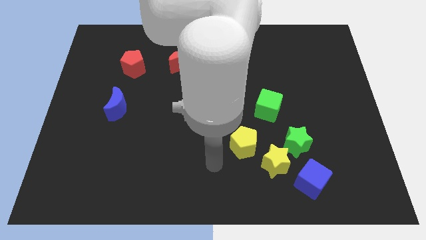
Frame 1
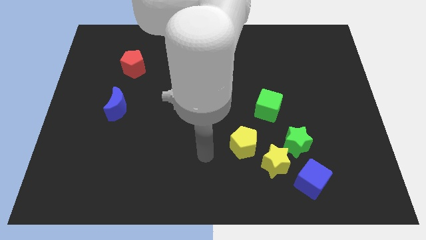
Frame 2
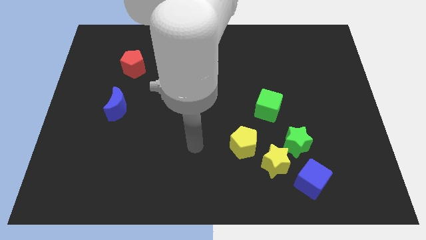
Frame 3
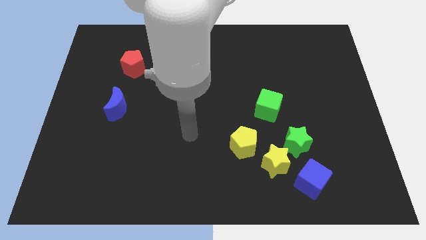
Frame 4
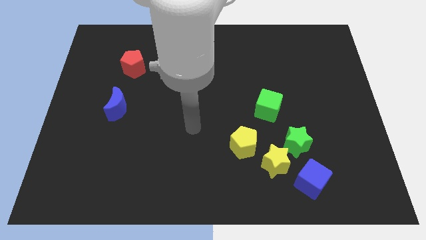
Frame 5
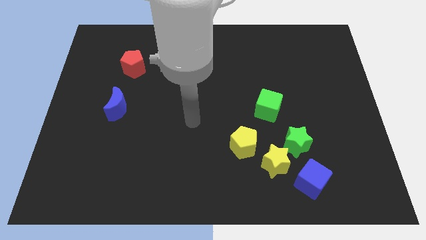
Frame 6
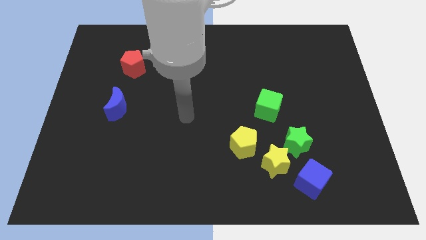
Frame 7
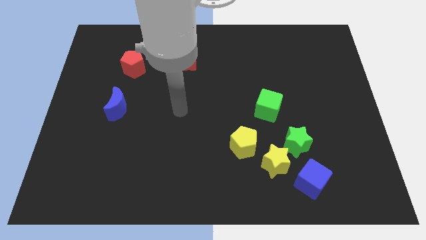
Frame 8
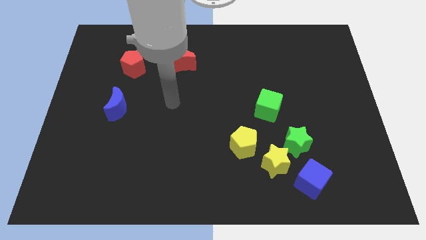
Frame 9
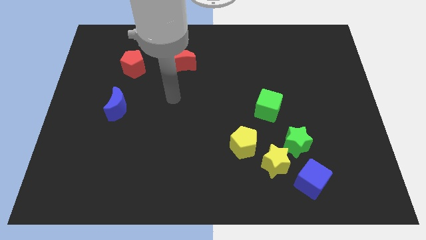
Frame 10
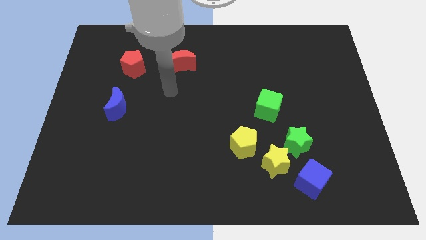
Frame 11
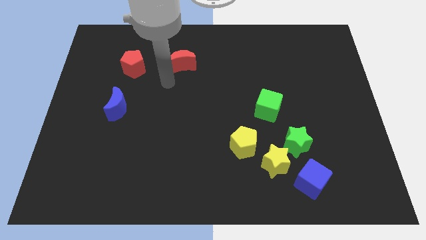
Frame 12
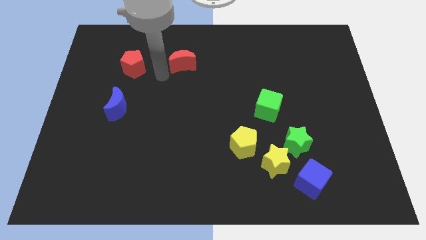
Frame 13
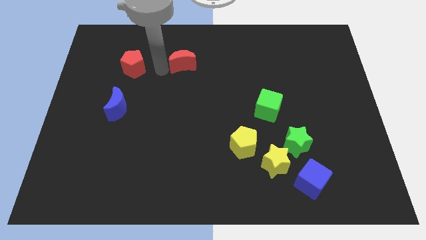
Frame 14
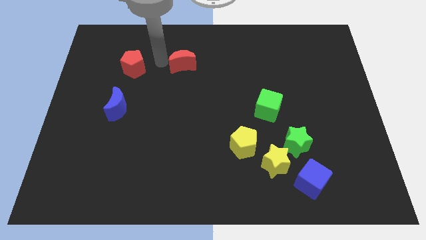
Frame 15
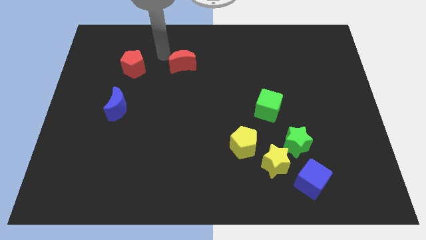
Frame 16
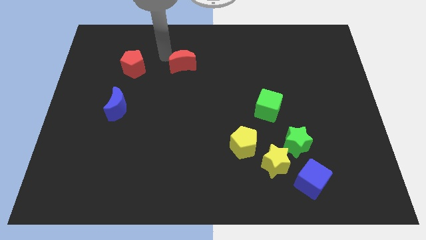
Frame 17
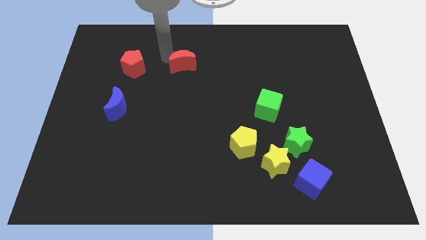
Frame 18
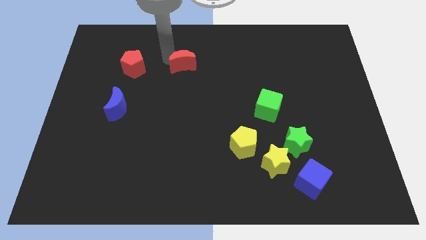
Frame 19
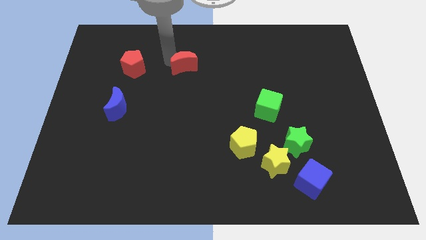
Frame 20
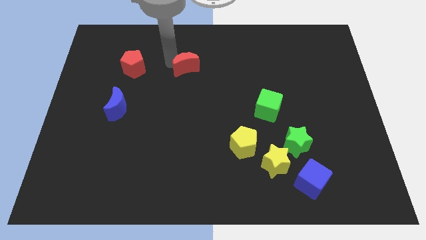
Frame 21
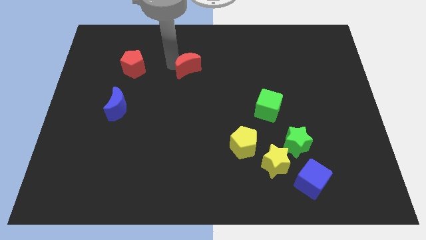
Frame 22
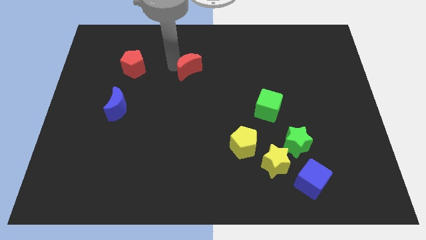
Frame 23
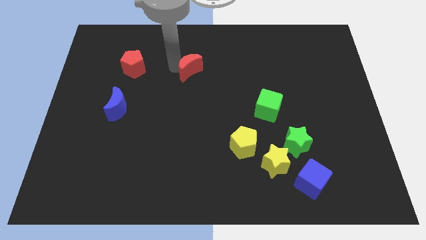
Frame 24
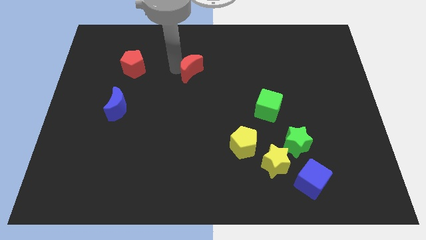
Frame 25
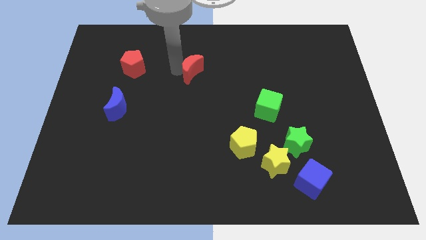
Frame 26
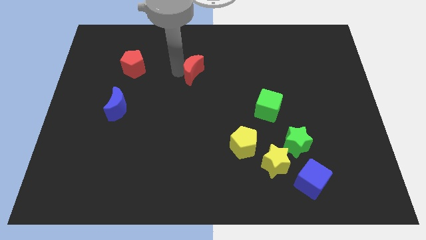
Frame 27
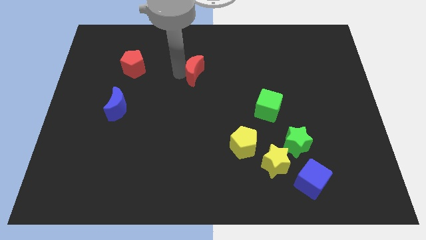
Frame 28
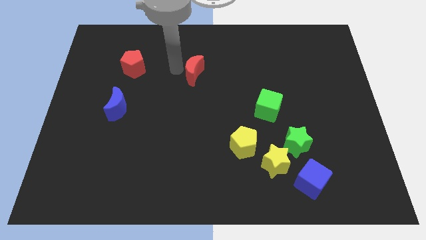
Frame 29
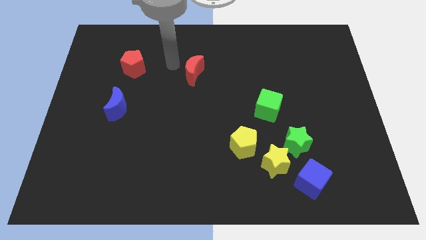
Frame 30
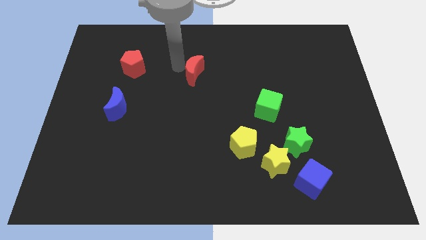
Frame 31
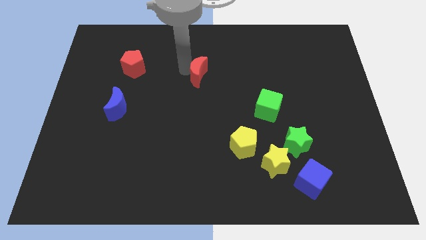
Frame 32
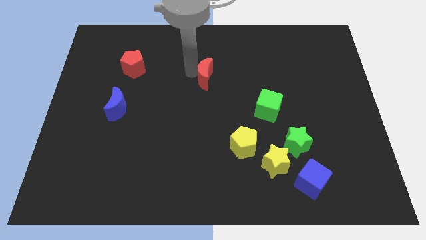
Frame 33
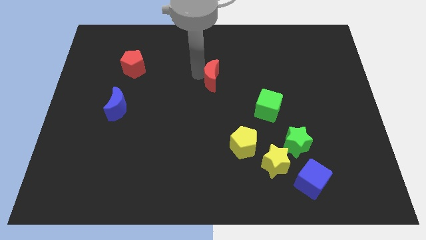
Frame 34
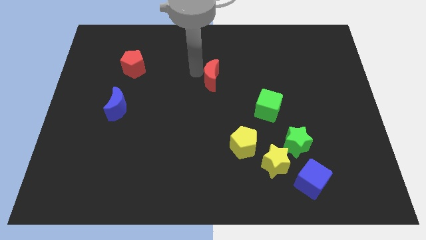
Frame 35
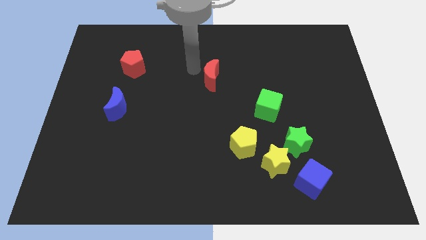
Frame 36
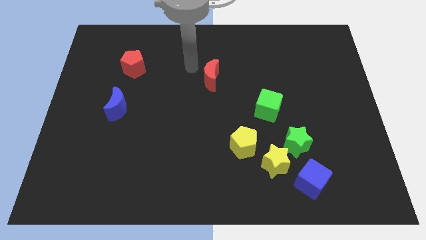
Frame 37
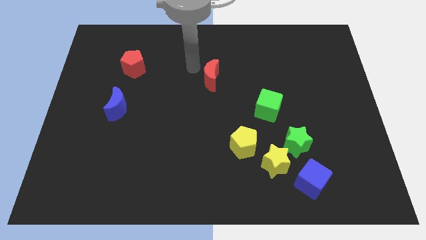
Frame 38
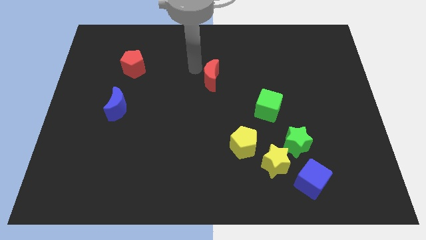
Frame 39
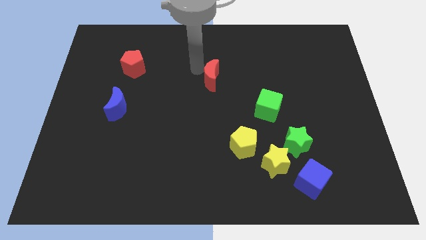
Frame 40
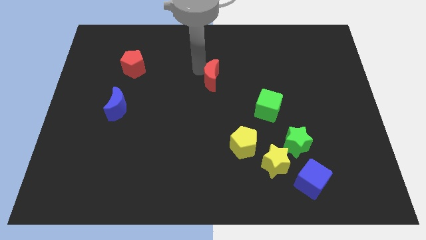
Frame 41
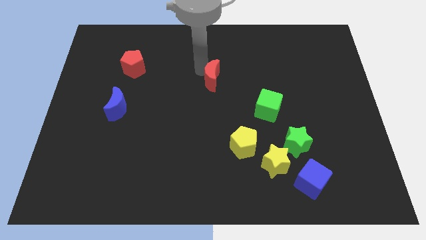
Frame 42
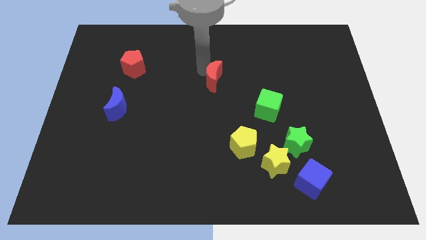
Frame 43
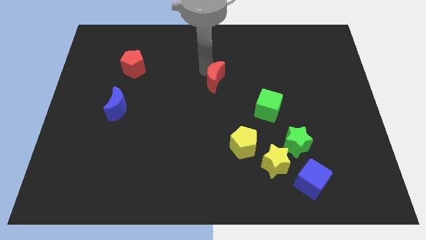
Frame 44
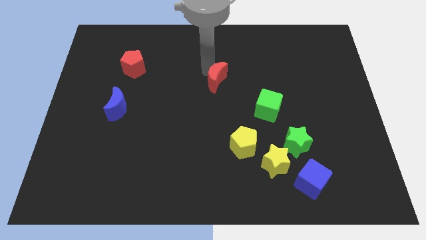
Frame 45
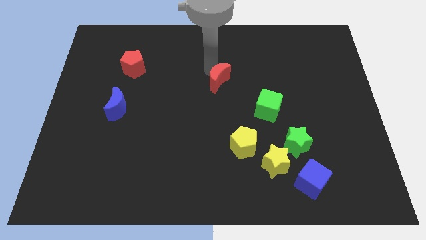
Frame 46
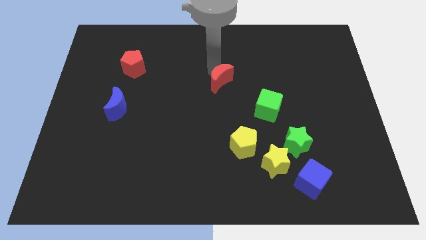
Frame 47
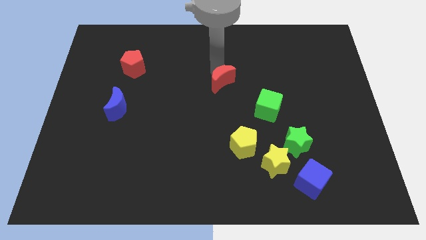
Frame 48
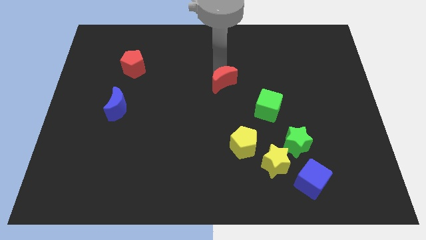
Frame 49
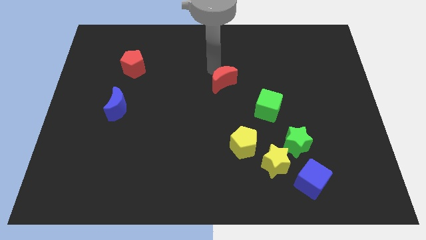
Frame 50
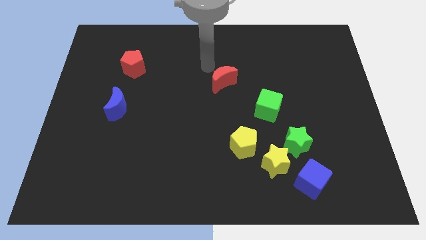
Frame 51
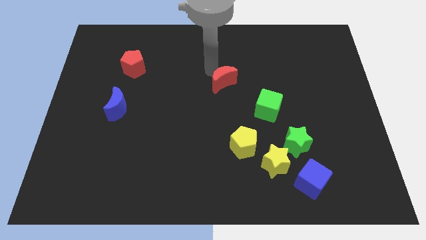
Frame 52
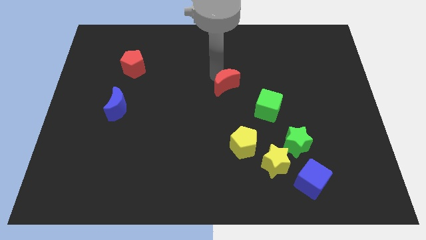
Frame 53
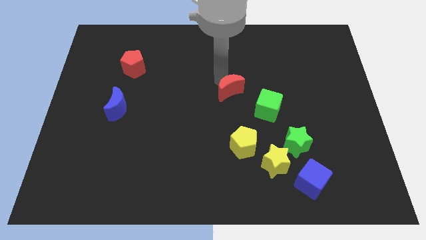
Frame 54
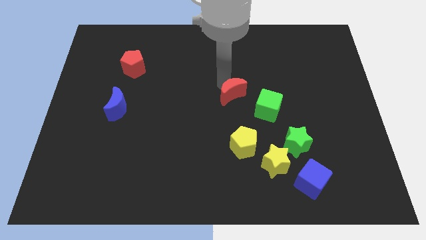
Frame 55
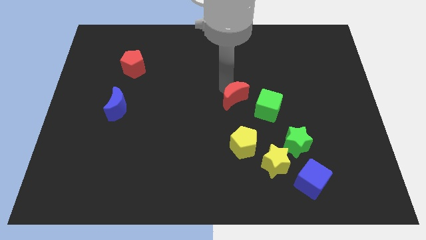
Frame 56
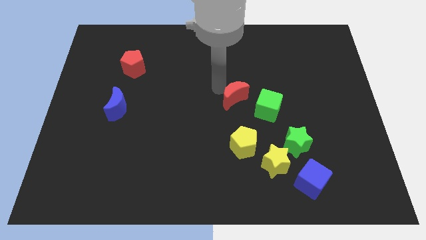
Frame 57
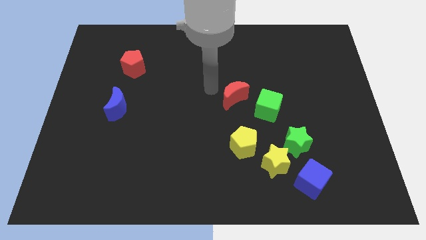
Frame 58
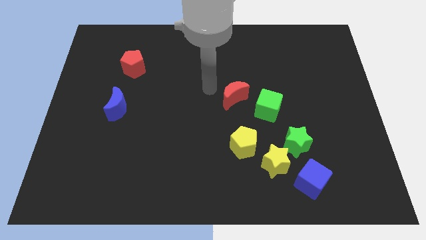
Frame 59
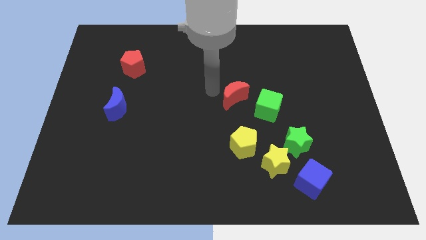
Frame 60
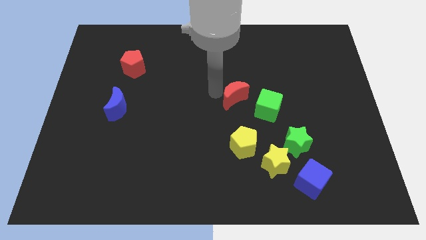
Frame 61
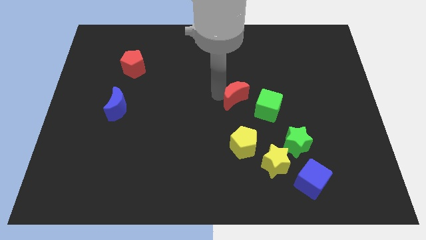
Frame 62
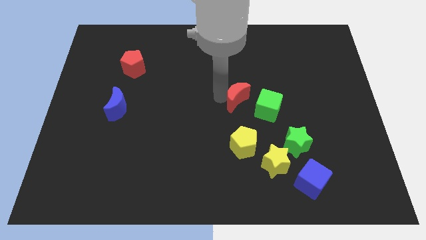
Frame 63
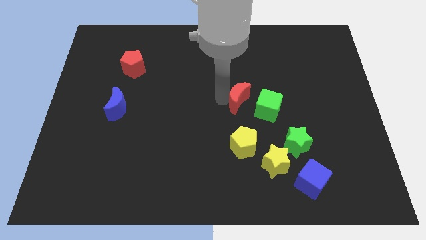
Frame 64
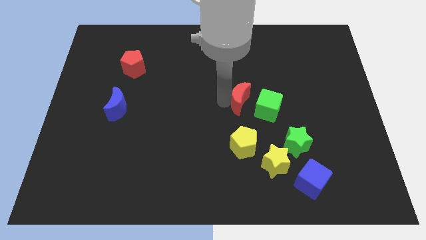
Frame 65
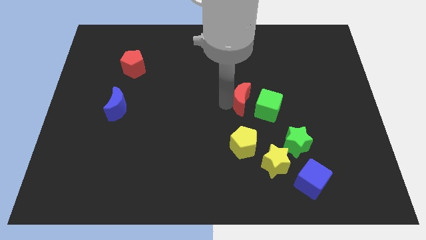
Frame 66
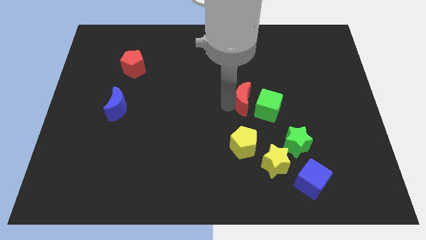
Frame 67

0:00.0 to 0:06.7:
move the red moon next to the green cube

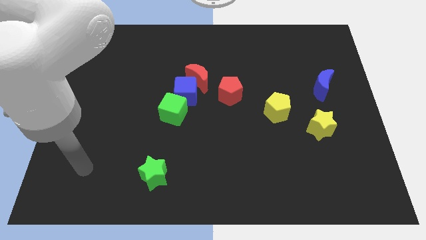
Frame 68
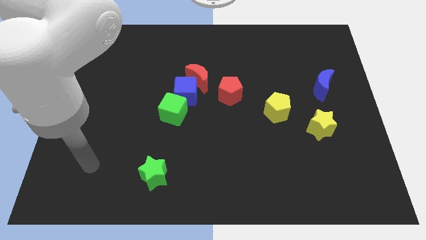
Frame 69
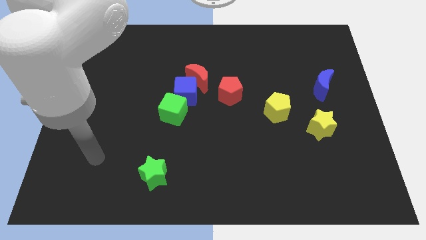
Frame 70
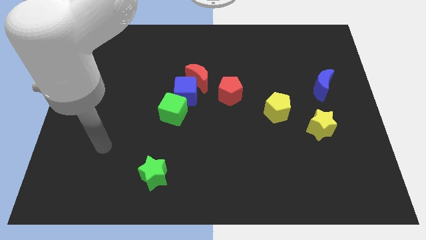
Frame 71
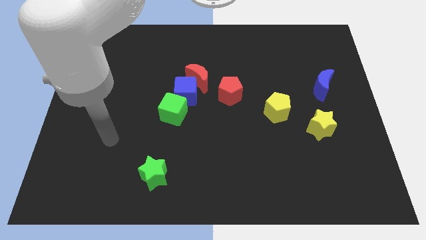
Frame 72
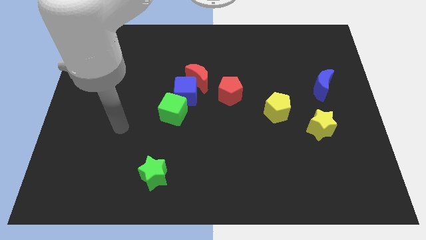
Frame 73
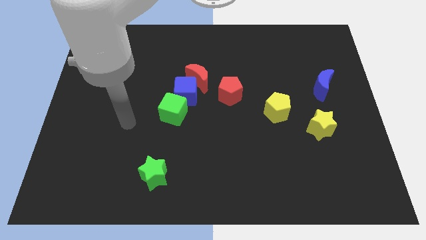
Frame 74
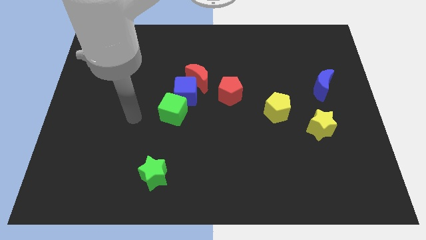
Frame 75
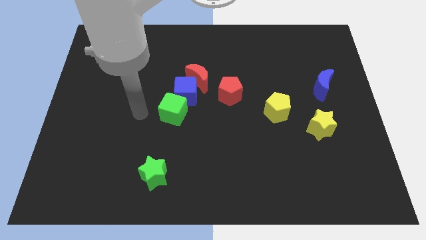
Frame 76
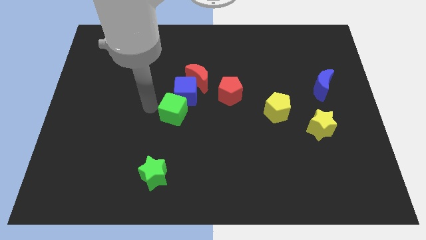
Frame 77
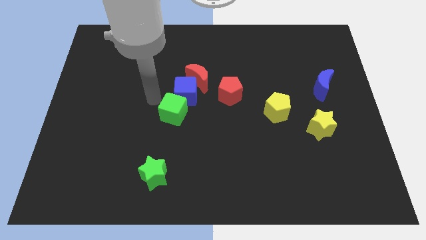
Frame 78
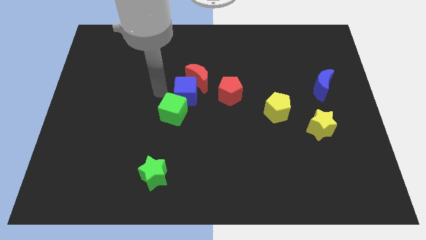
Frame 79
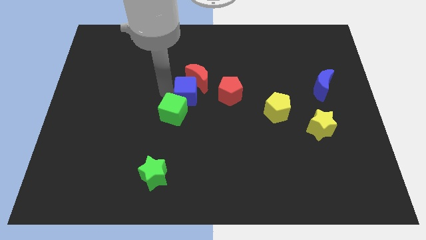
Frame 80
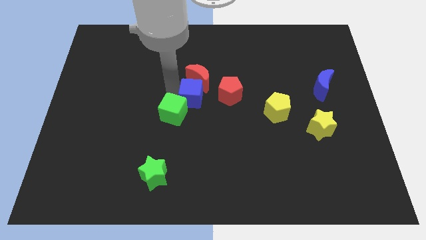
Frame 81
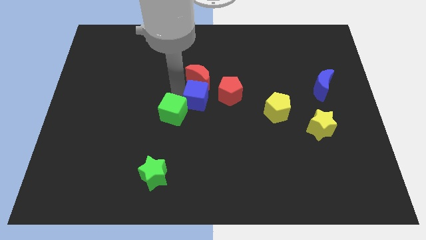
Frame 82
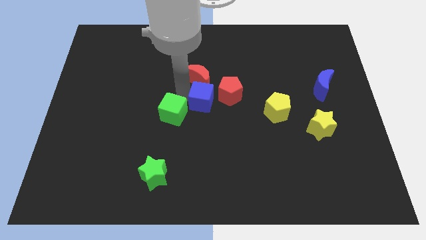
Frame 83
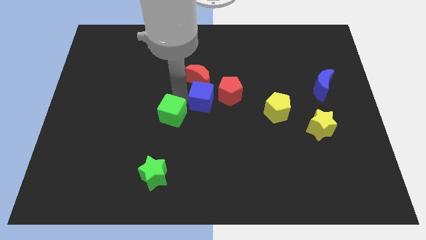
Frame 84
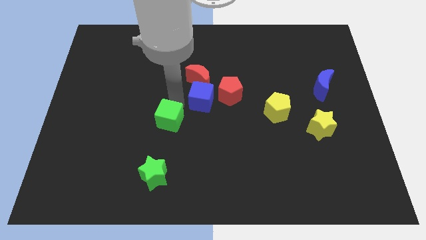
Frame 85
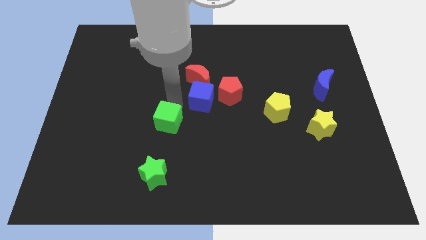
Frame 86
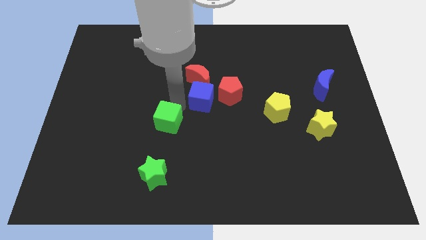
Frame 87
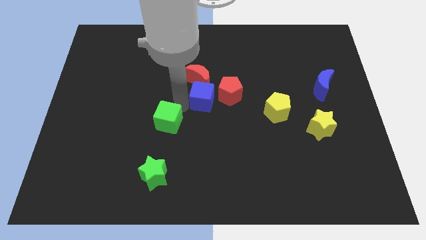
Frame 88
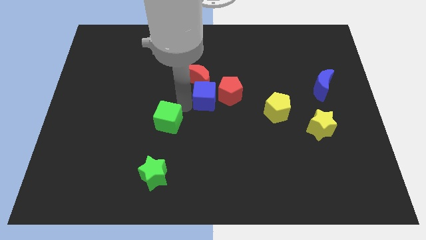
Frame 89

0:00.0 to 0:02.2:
move the blue cube close to the red pentagon
